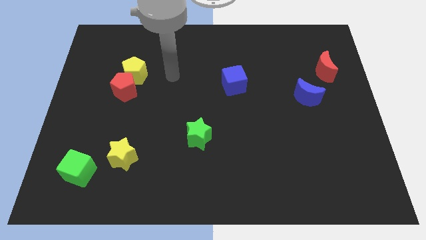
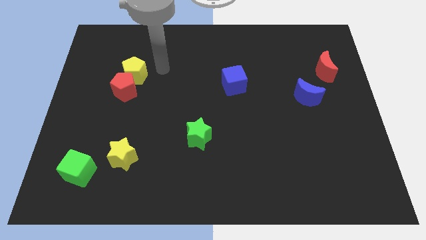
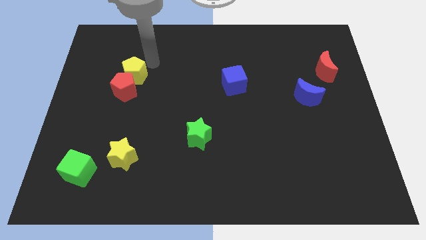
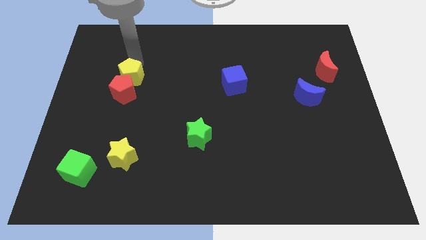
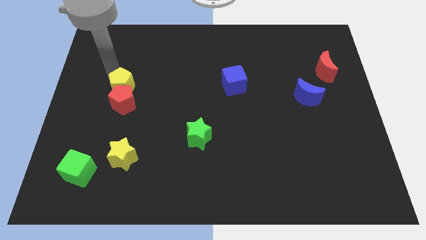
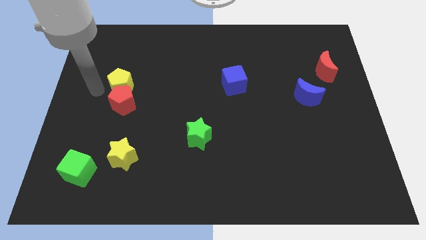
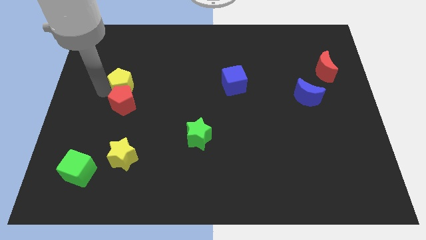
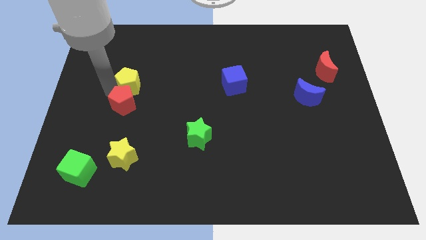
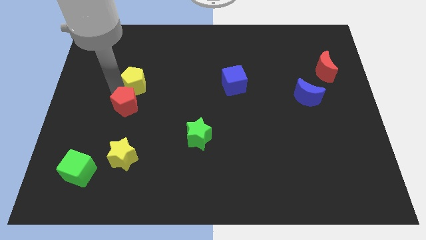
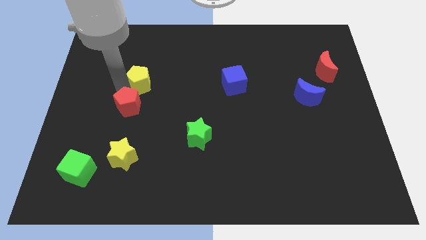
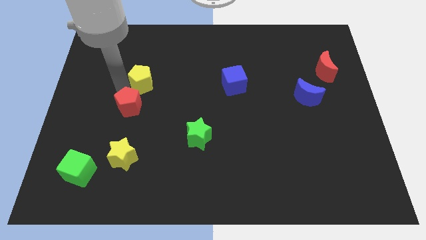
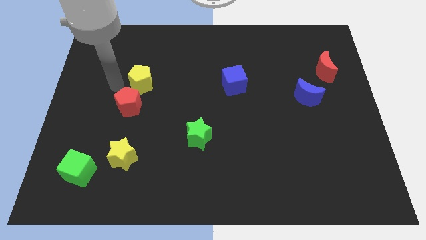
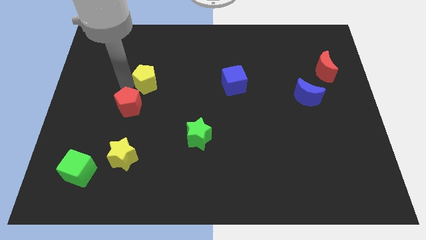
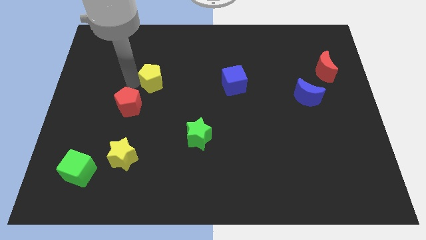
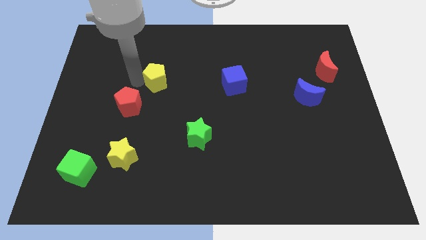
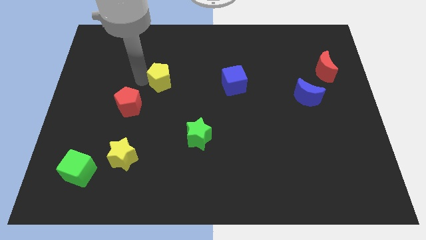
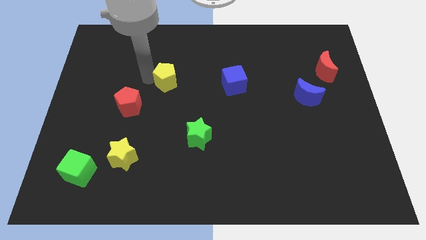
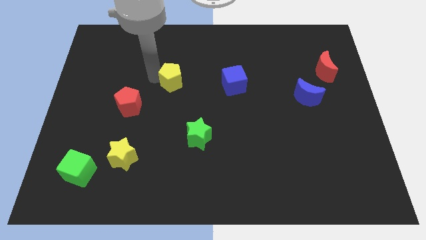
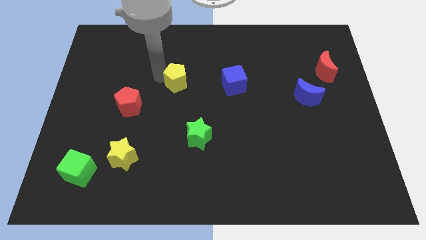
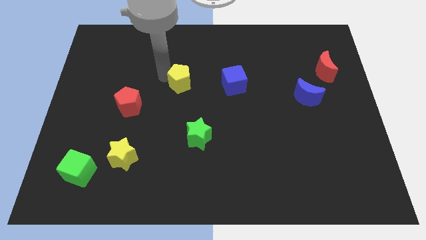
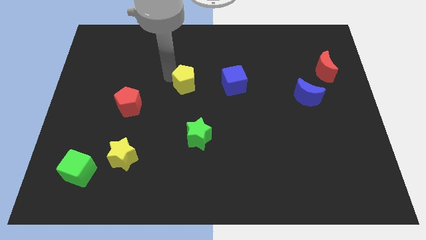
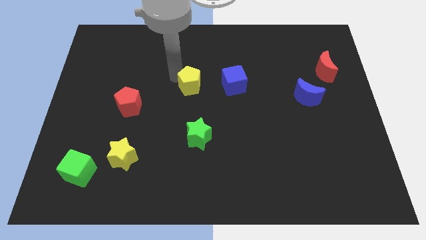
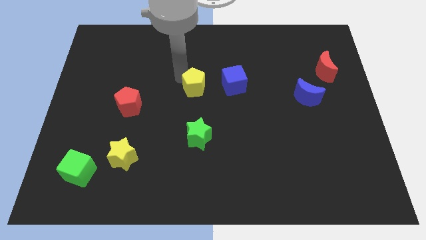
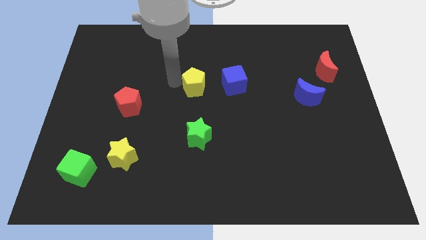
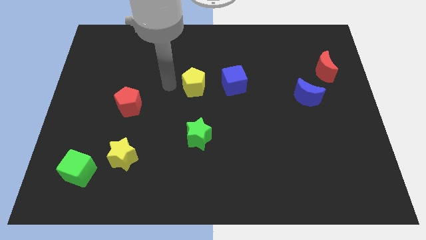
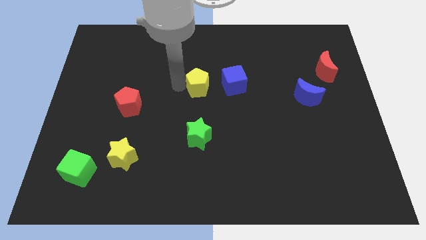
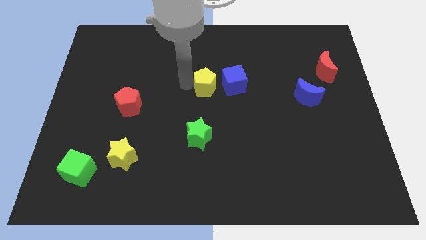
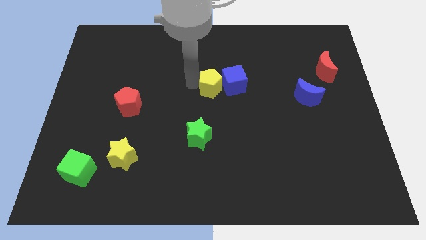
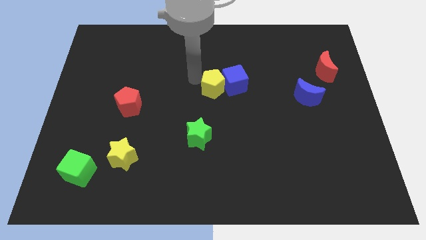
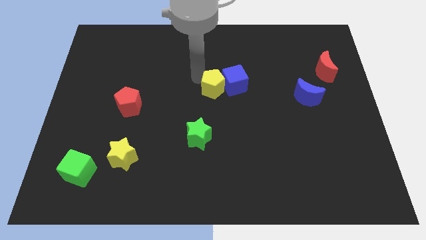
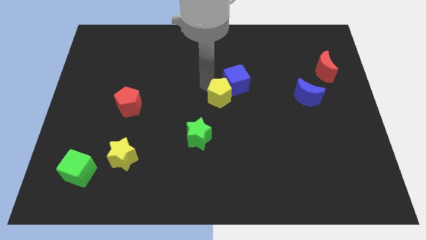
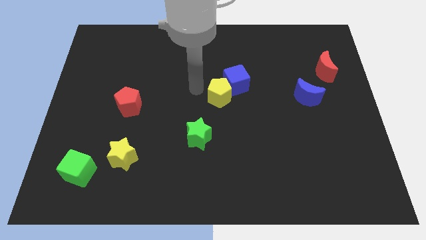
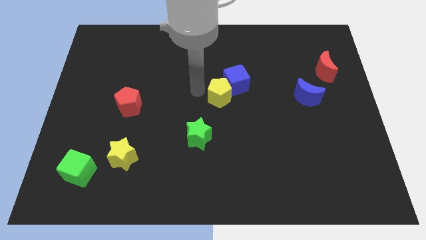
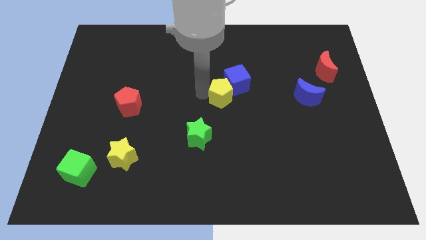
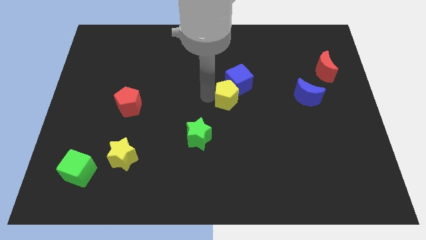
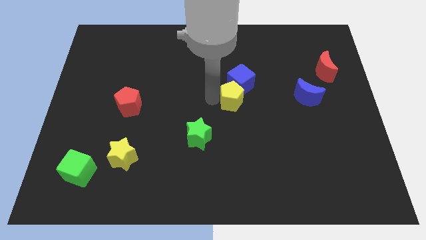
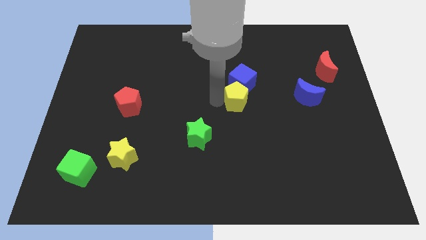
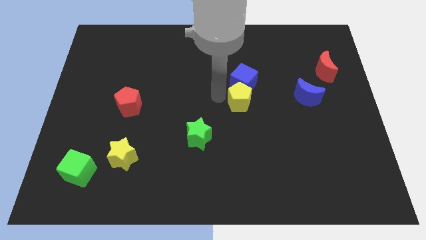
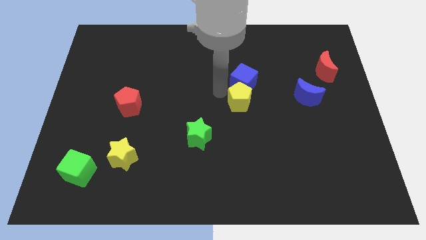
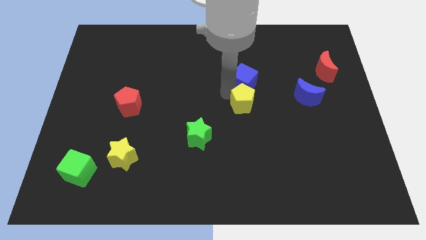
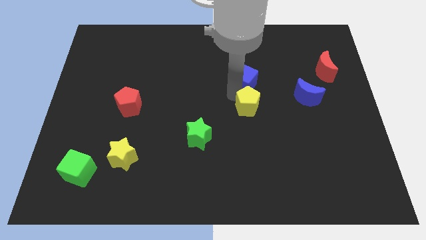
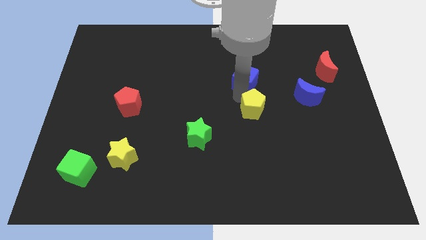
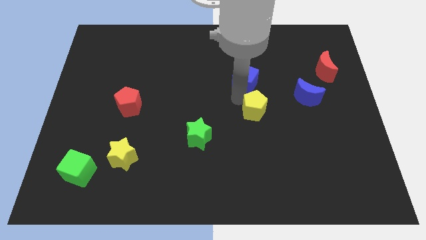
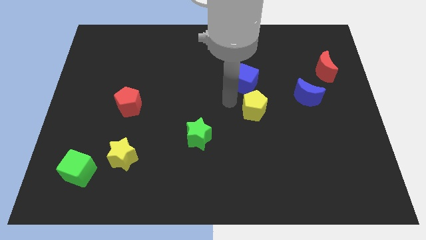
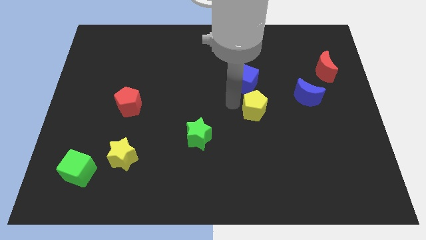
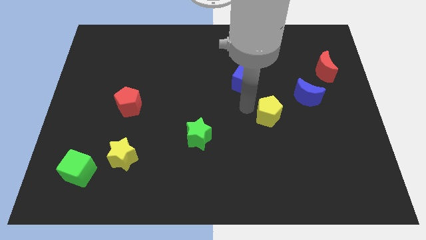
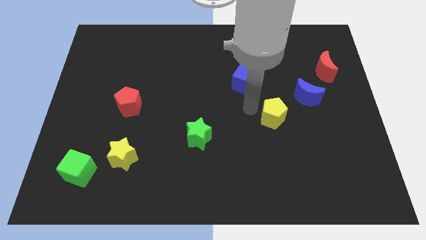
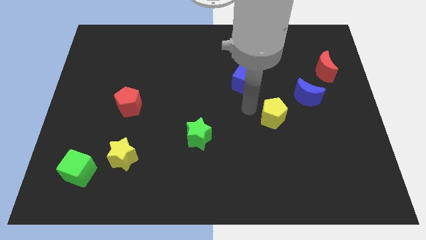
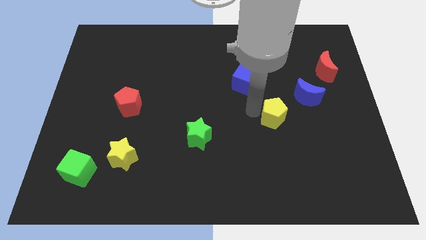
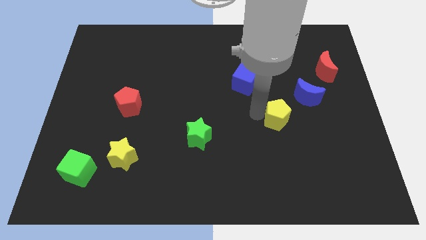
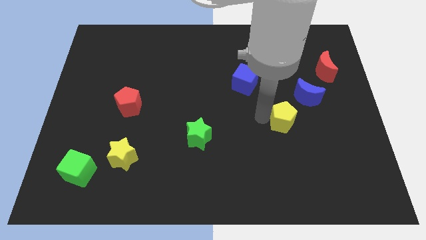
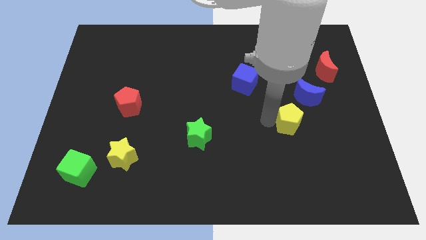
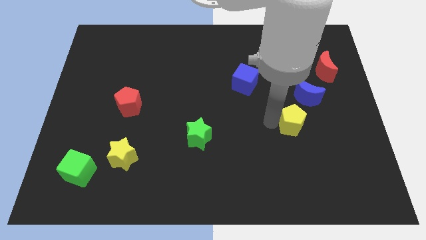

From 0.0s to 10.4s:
push the yellow pentagon to the bottom of the blue moon

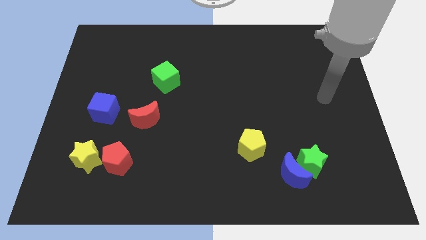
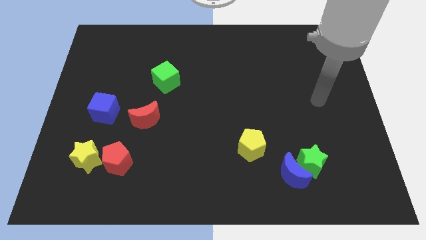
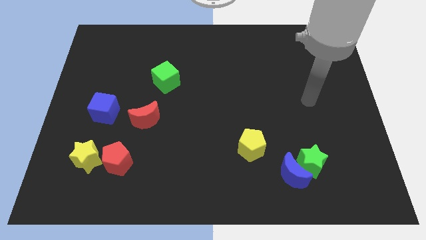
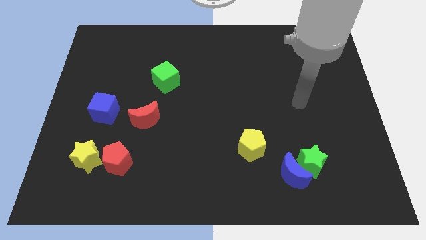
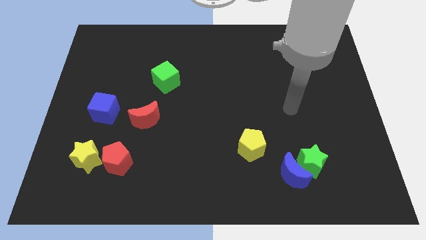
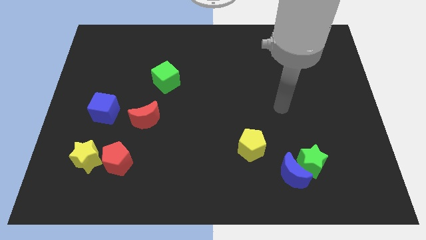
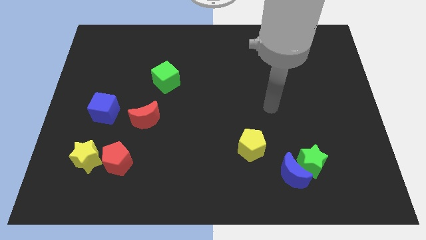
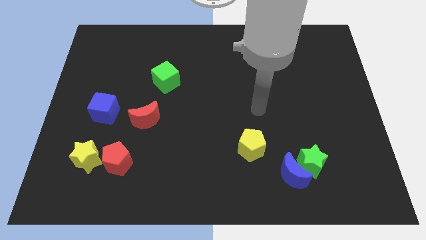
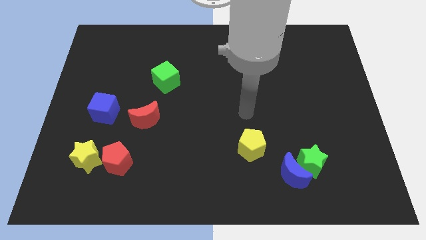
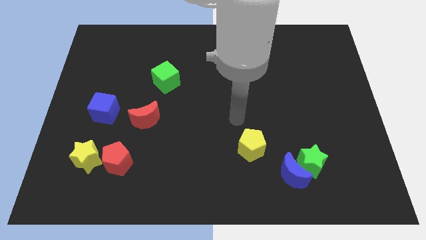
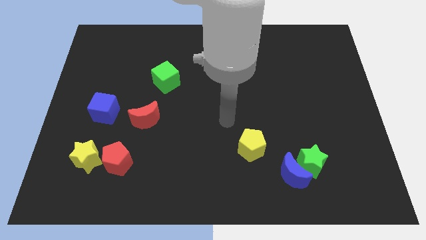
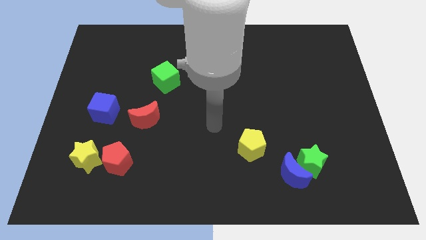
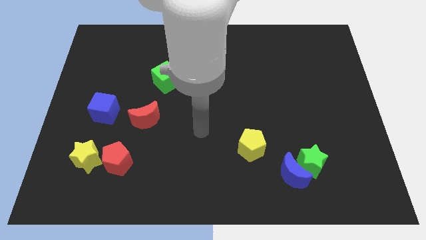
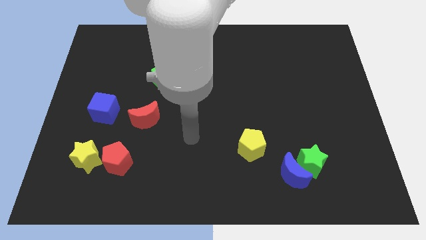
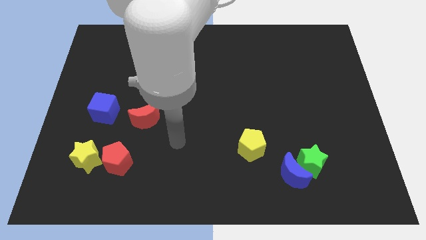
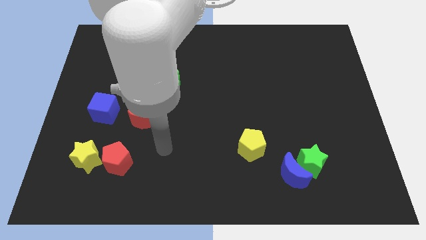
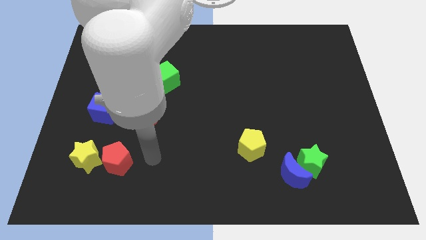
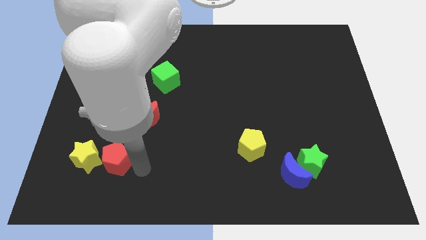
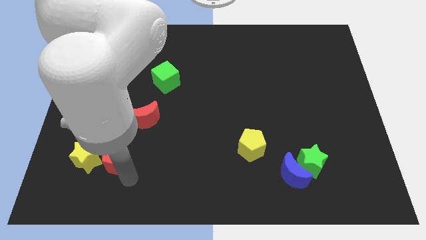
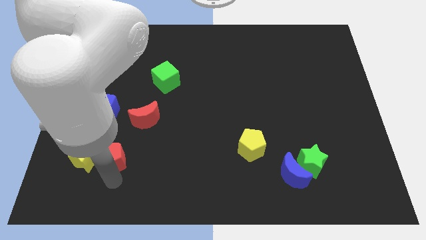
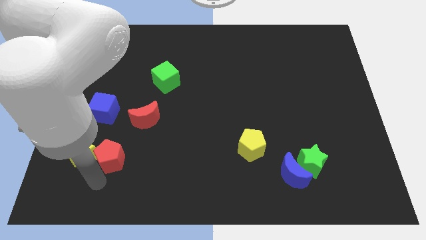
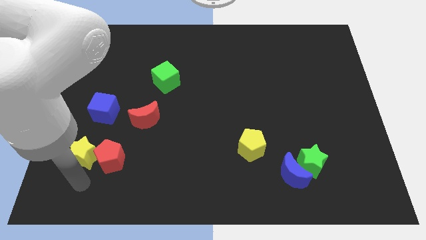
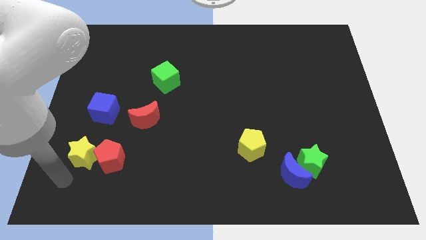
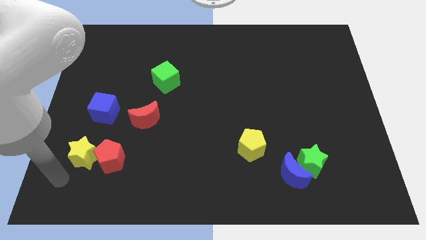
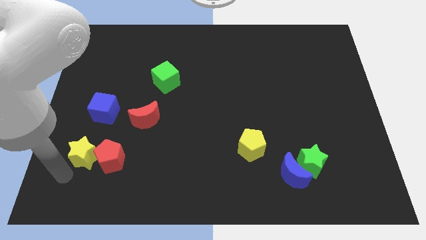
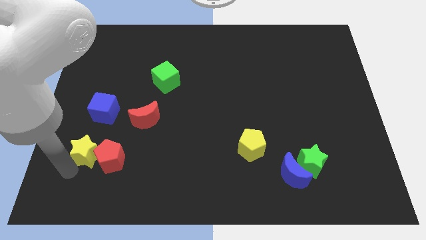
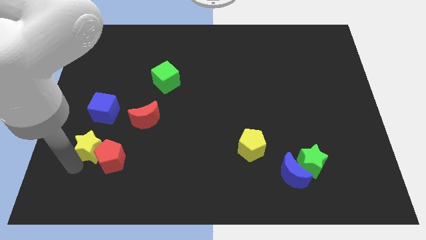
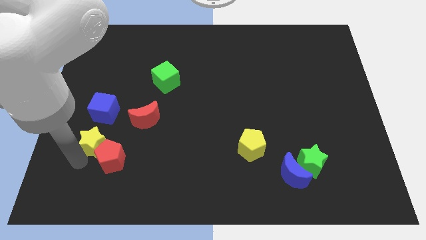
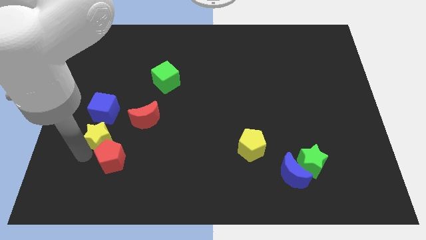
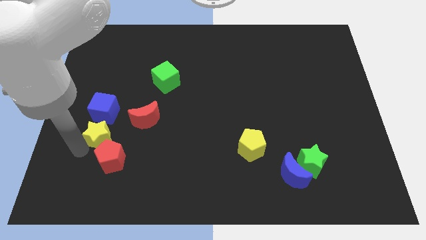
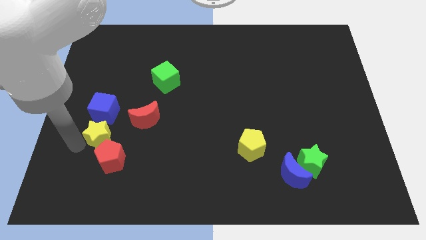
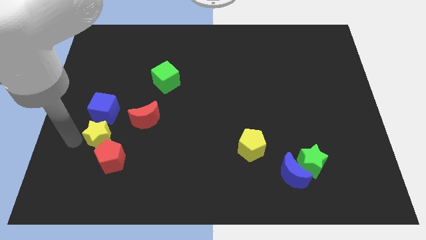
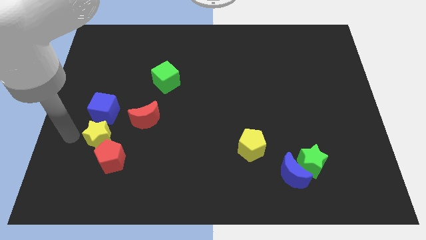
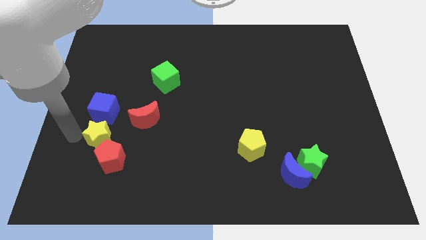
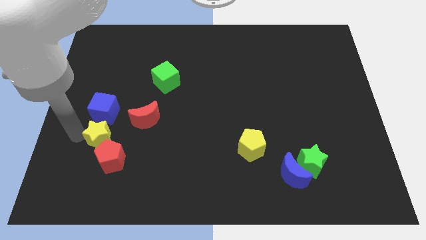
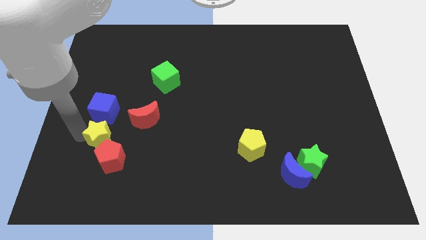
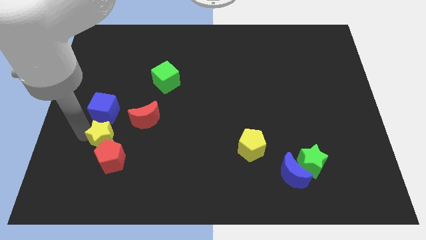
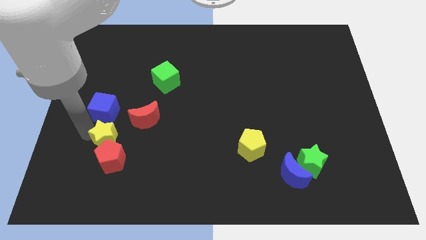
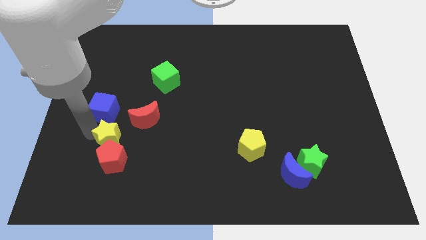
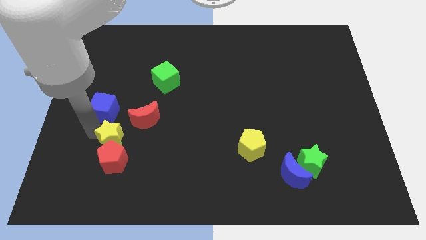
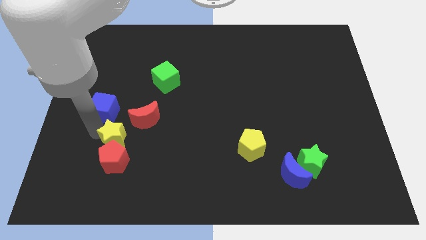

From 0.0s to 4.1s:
slide the yellow star to the top right of the red pentagon
